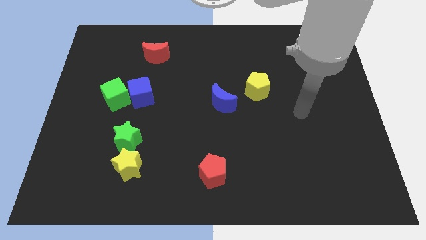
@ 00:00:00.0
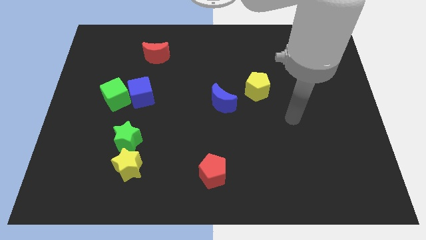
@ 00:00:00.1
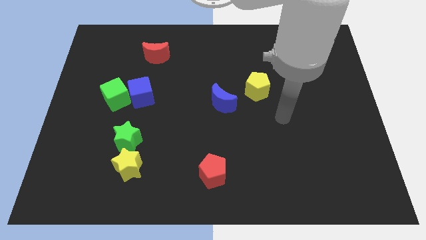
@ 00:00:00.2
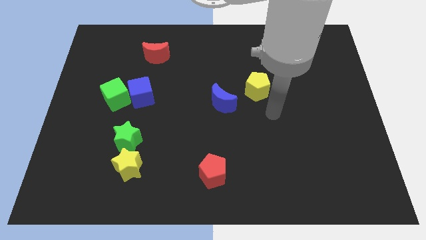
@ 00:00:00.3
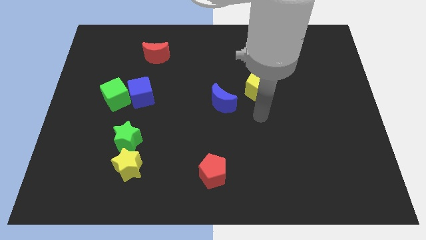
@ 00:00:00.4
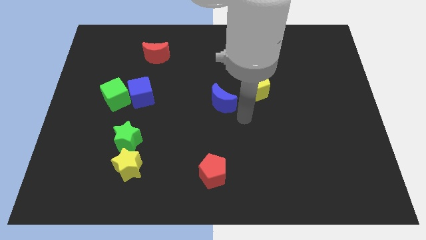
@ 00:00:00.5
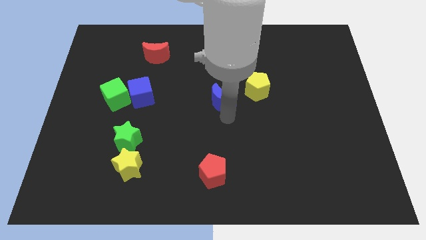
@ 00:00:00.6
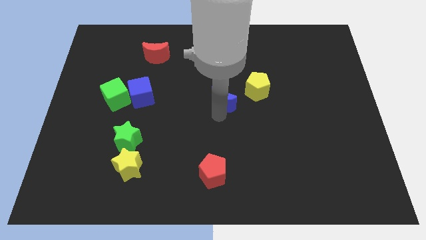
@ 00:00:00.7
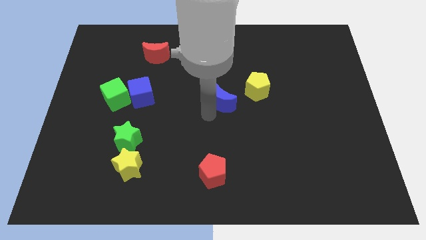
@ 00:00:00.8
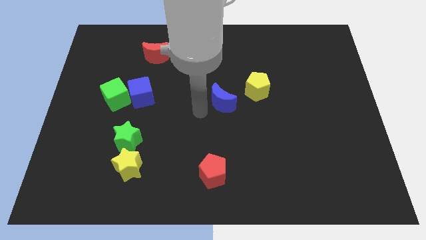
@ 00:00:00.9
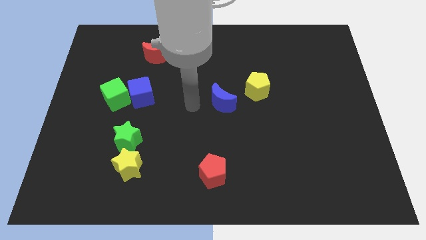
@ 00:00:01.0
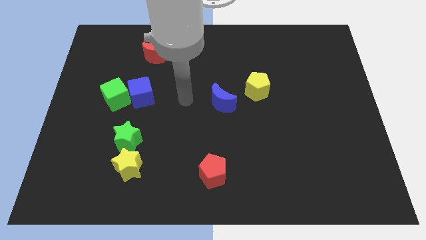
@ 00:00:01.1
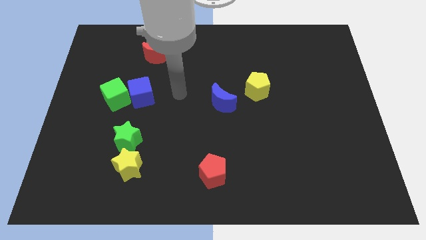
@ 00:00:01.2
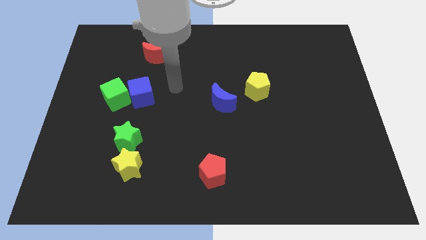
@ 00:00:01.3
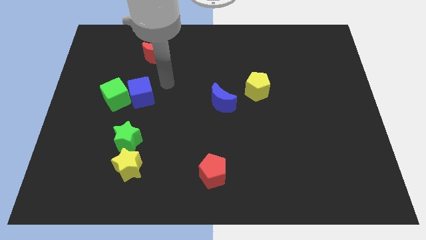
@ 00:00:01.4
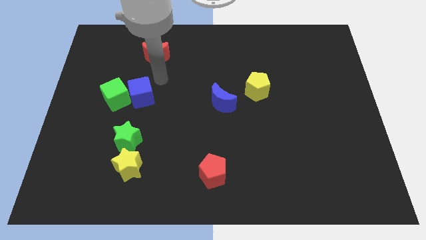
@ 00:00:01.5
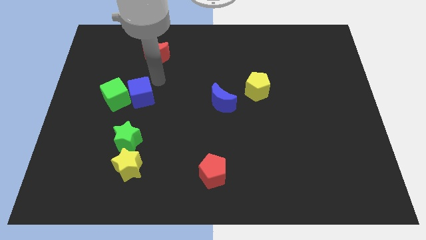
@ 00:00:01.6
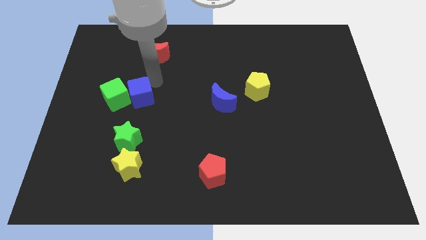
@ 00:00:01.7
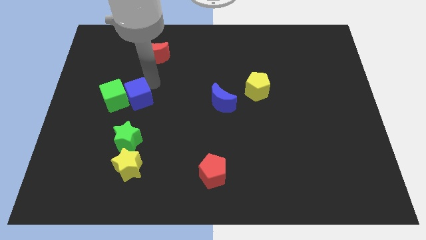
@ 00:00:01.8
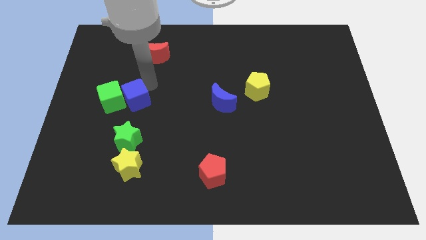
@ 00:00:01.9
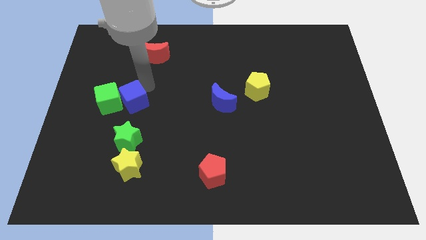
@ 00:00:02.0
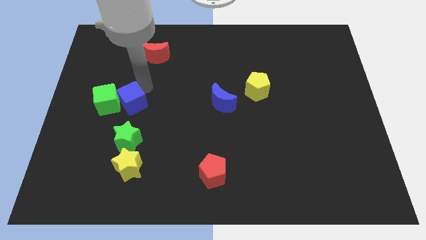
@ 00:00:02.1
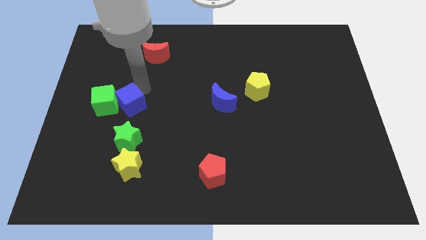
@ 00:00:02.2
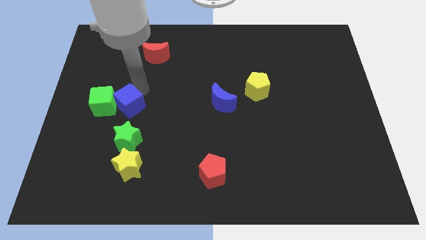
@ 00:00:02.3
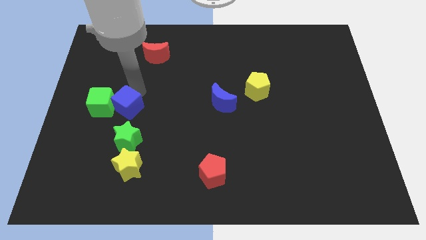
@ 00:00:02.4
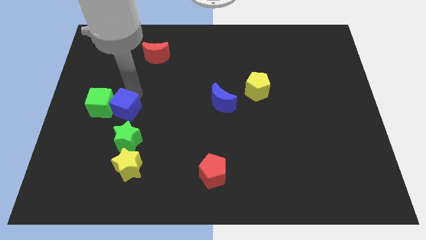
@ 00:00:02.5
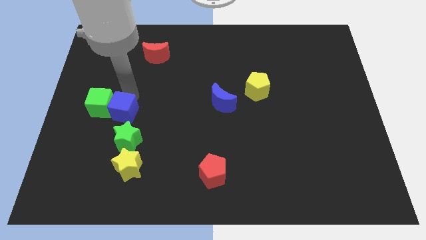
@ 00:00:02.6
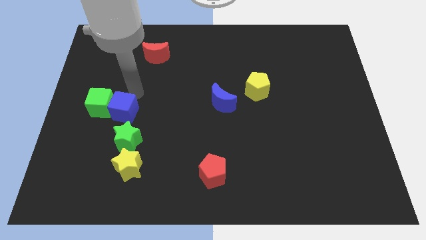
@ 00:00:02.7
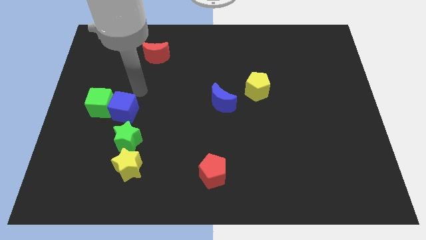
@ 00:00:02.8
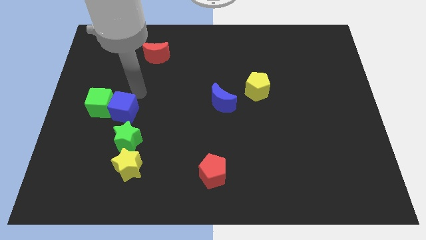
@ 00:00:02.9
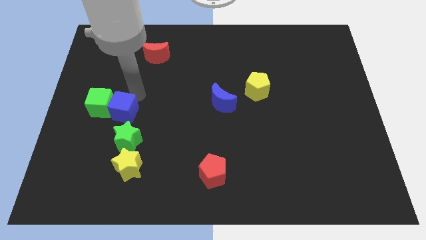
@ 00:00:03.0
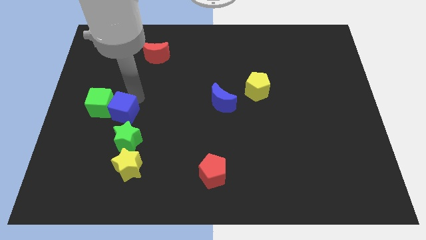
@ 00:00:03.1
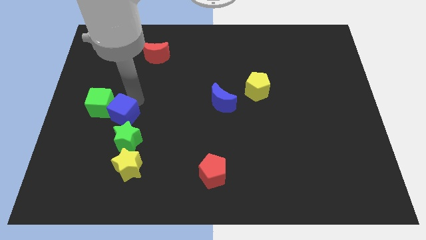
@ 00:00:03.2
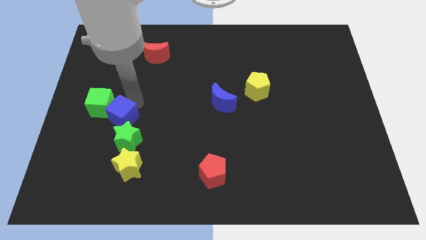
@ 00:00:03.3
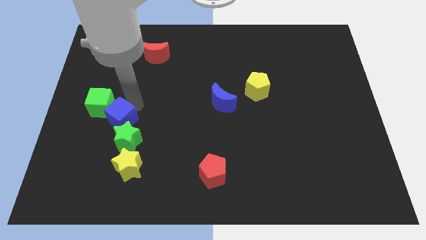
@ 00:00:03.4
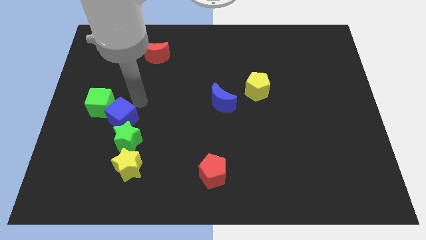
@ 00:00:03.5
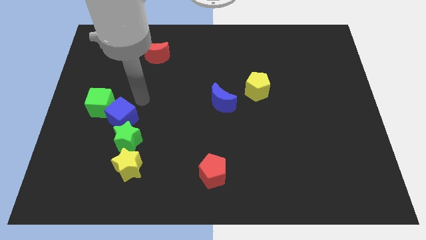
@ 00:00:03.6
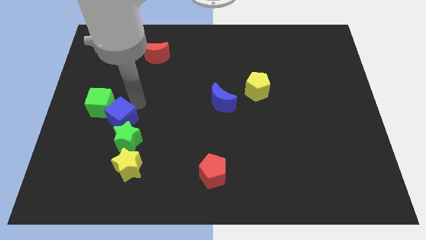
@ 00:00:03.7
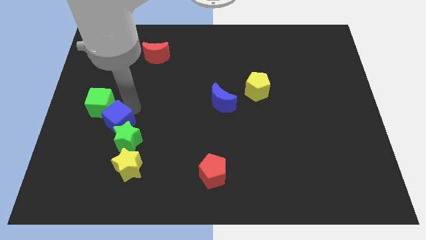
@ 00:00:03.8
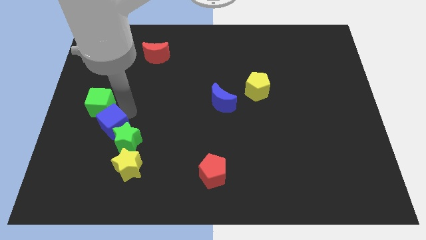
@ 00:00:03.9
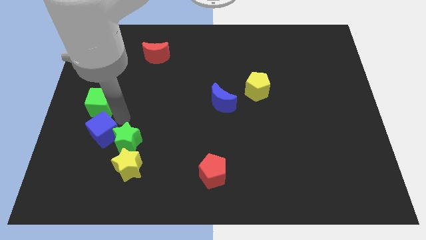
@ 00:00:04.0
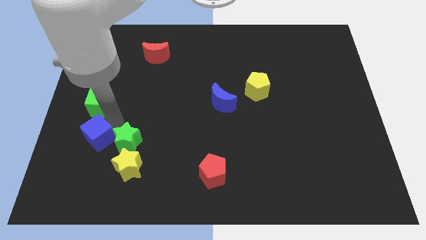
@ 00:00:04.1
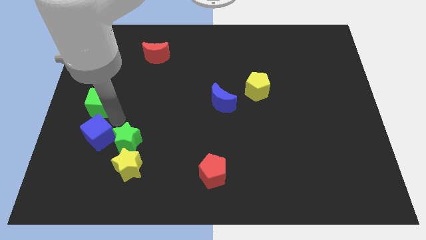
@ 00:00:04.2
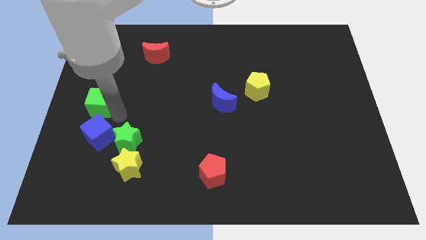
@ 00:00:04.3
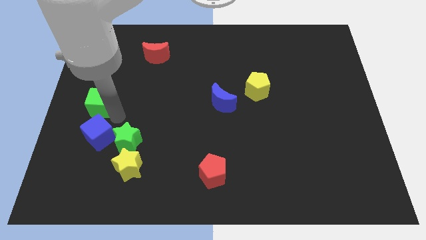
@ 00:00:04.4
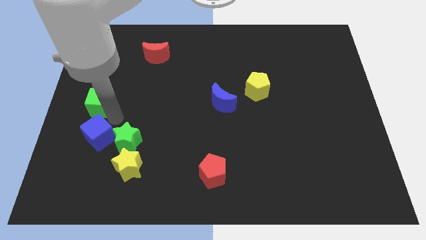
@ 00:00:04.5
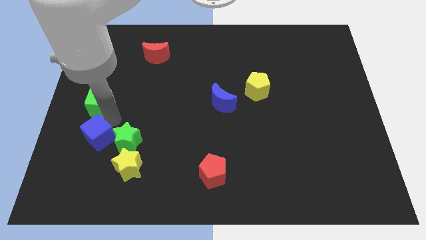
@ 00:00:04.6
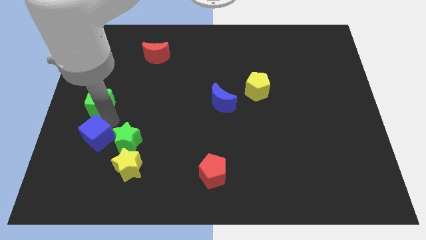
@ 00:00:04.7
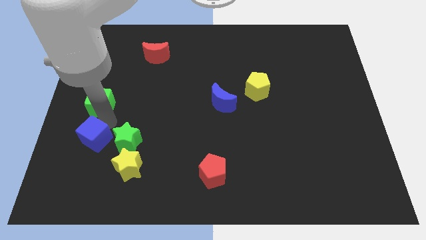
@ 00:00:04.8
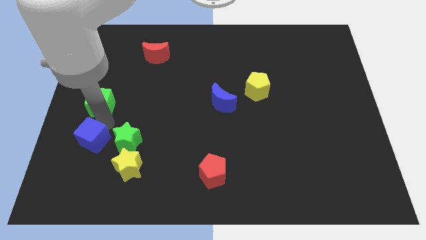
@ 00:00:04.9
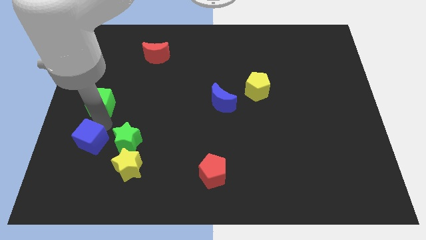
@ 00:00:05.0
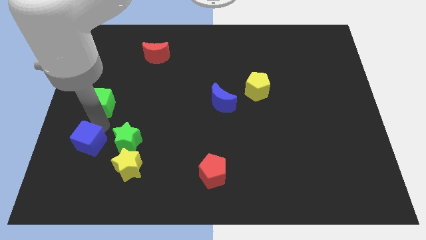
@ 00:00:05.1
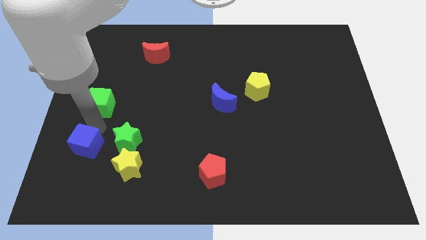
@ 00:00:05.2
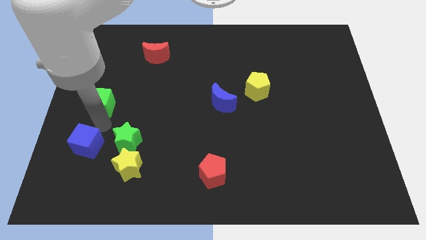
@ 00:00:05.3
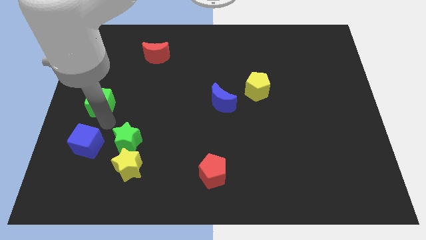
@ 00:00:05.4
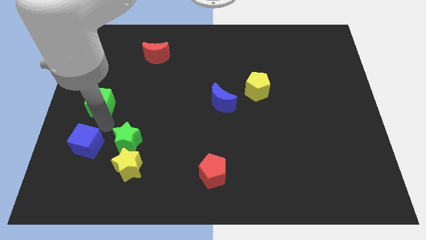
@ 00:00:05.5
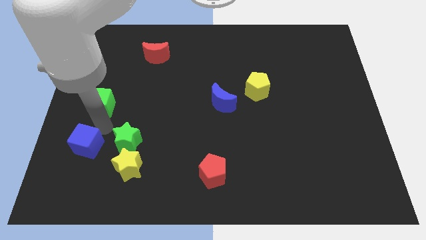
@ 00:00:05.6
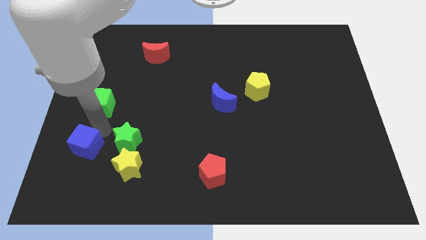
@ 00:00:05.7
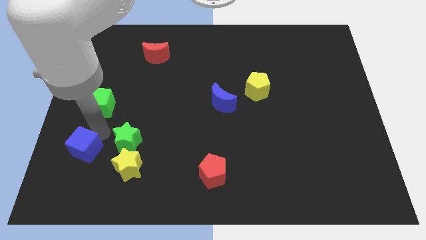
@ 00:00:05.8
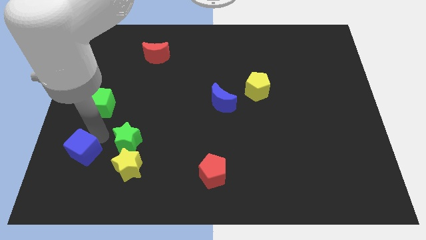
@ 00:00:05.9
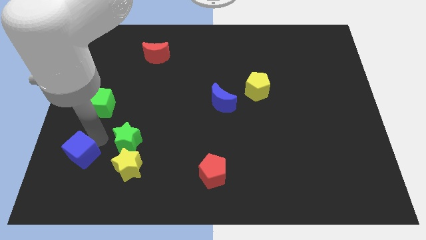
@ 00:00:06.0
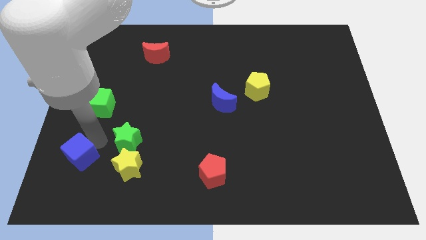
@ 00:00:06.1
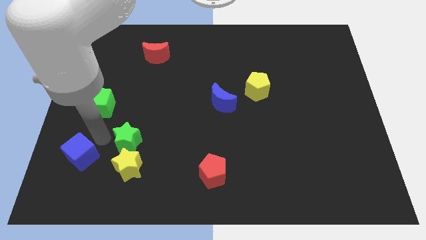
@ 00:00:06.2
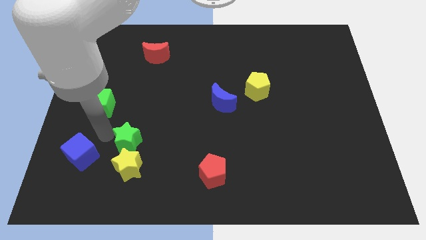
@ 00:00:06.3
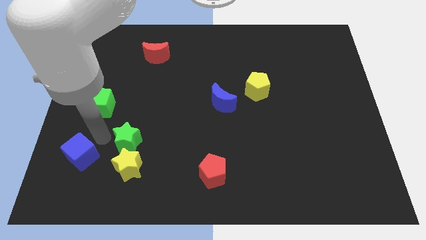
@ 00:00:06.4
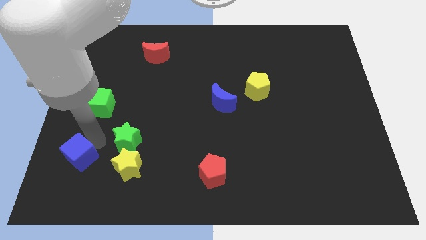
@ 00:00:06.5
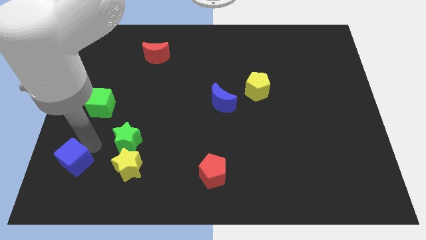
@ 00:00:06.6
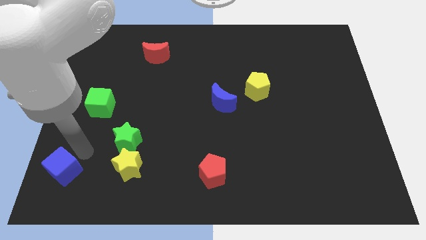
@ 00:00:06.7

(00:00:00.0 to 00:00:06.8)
put the blue cube to the bottom left
